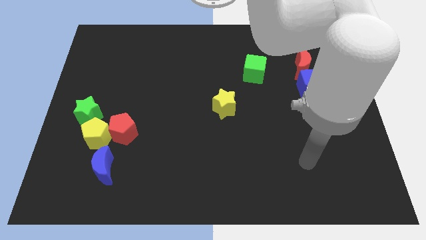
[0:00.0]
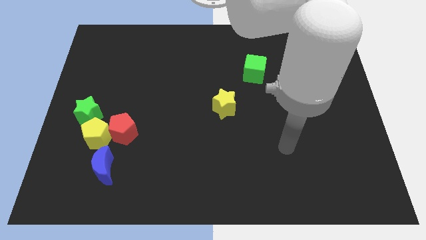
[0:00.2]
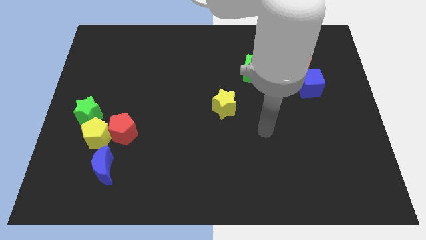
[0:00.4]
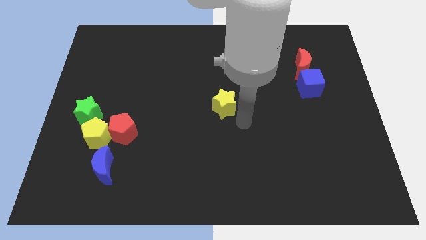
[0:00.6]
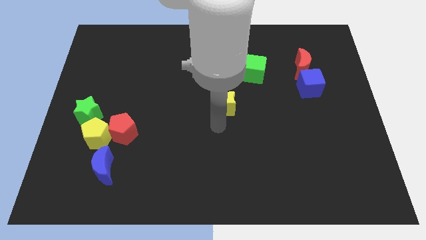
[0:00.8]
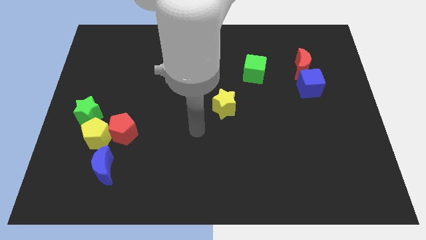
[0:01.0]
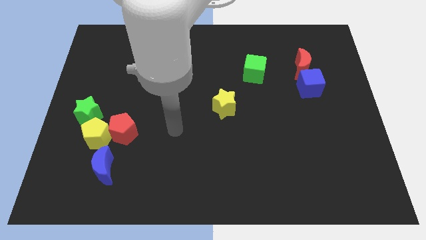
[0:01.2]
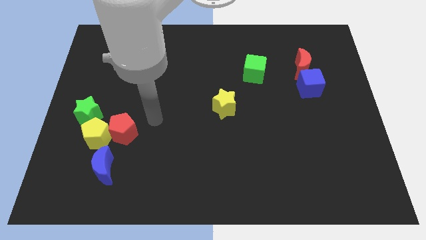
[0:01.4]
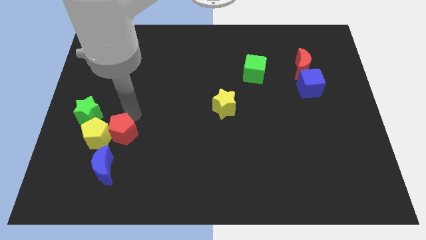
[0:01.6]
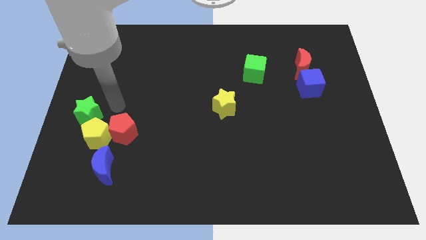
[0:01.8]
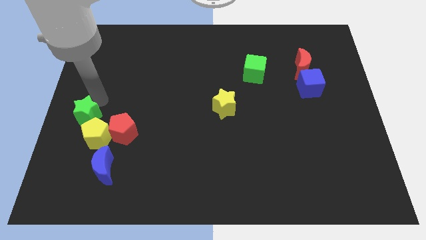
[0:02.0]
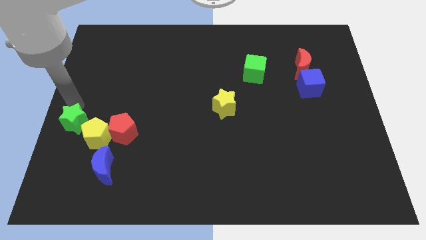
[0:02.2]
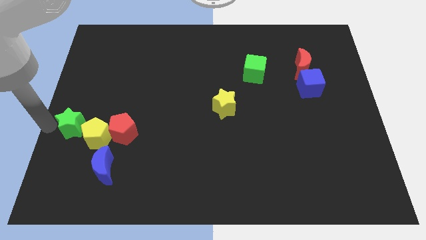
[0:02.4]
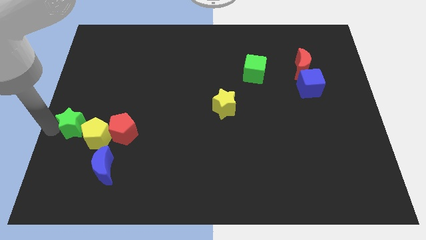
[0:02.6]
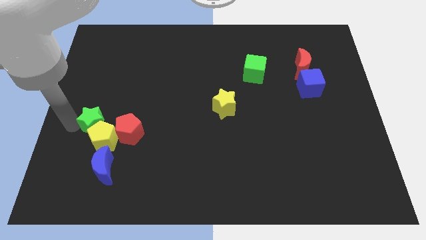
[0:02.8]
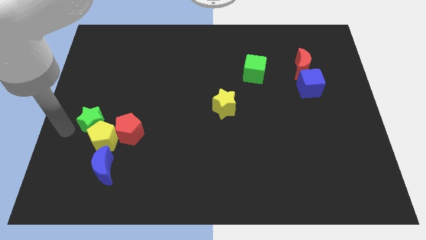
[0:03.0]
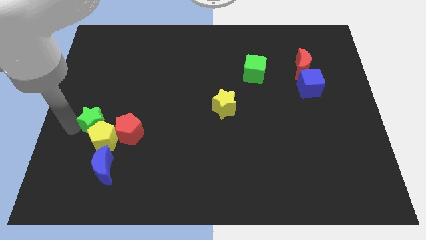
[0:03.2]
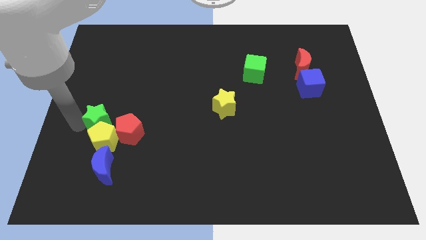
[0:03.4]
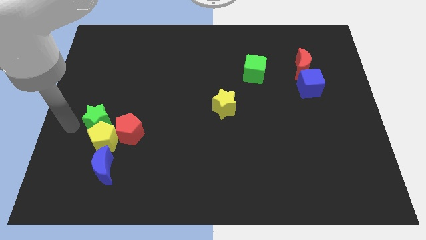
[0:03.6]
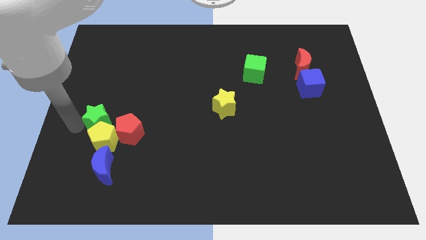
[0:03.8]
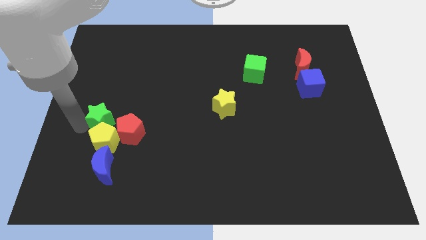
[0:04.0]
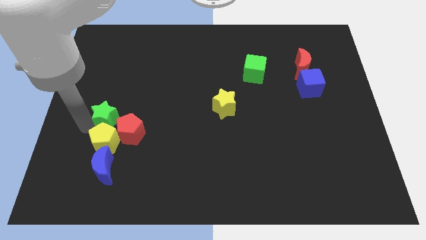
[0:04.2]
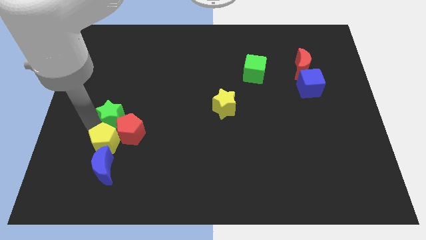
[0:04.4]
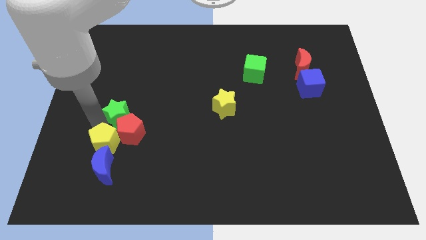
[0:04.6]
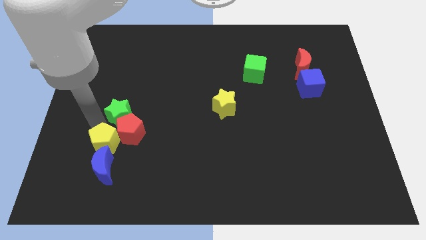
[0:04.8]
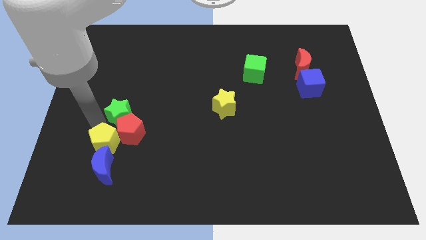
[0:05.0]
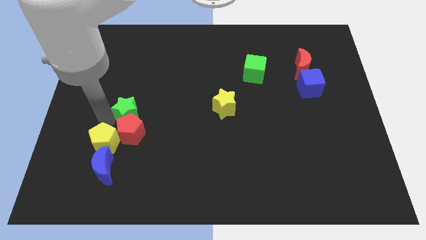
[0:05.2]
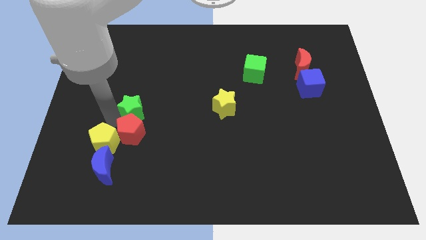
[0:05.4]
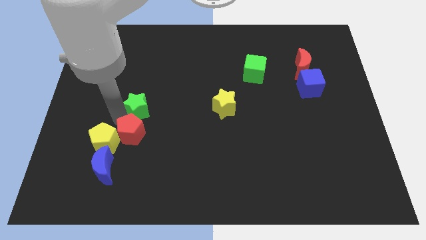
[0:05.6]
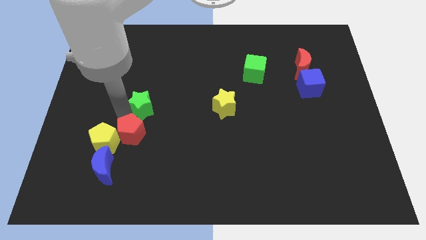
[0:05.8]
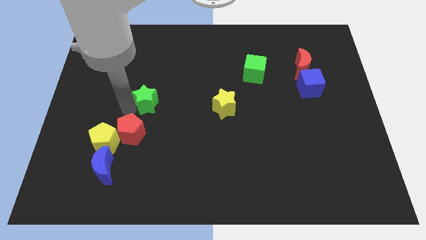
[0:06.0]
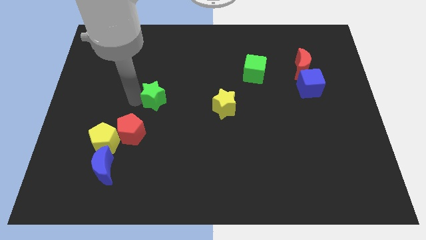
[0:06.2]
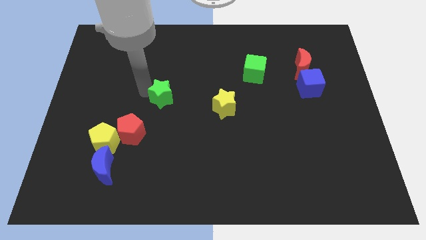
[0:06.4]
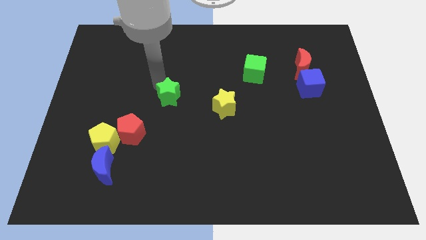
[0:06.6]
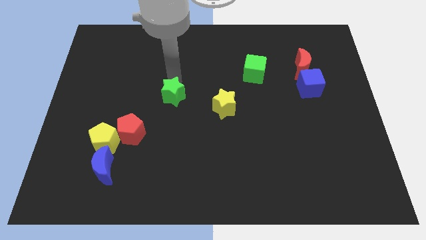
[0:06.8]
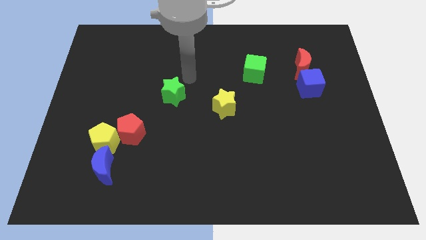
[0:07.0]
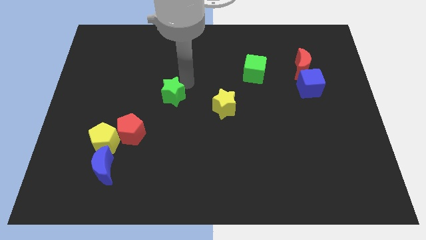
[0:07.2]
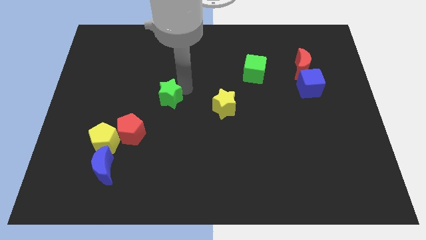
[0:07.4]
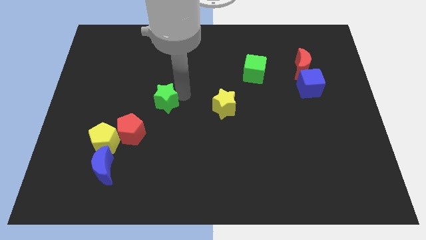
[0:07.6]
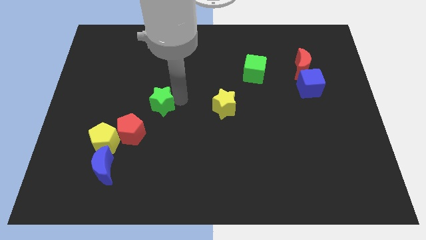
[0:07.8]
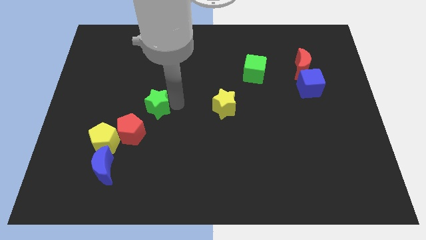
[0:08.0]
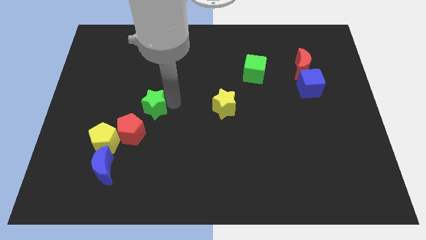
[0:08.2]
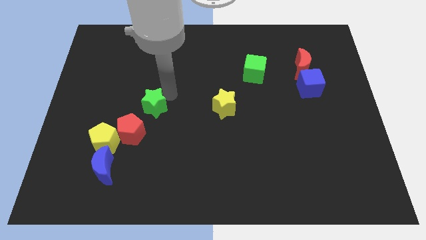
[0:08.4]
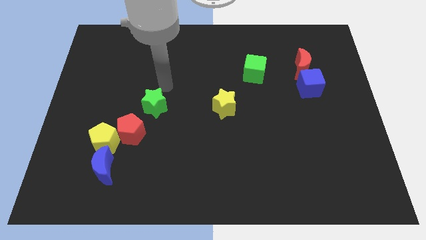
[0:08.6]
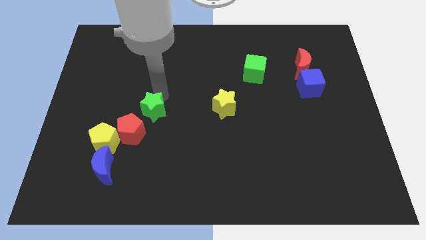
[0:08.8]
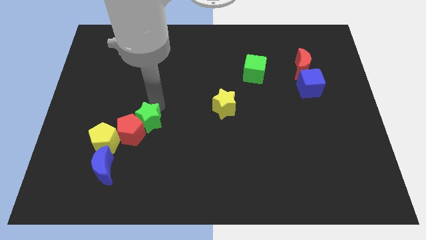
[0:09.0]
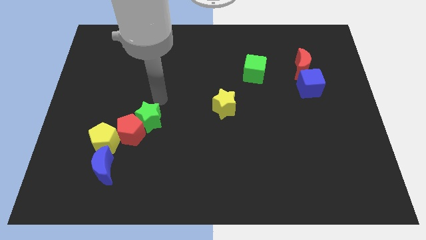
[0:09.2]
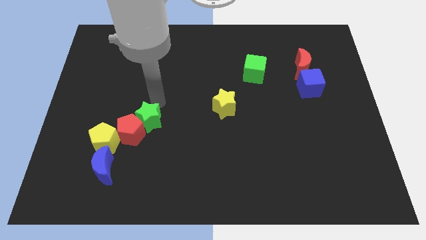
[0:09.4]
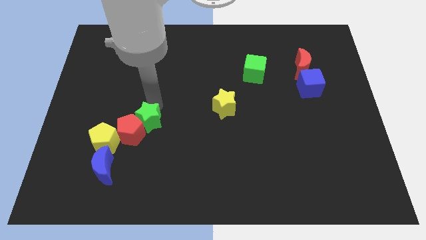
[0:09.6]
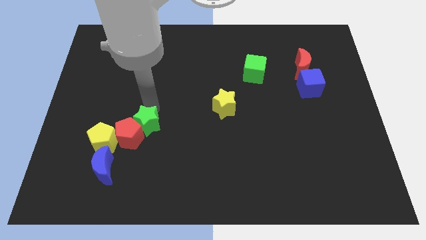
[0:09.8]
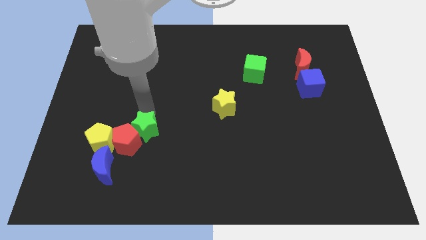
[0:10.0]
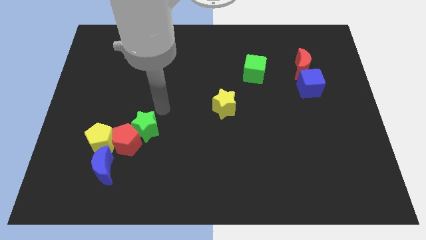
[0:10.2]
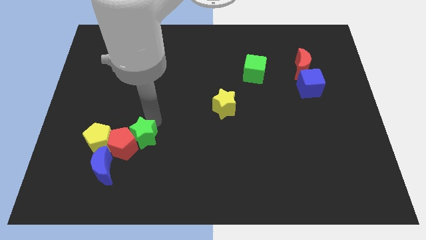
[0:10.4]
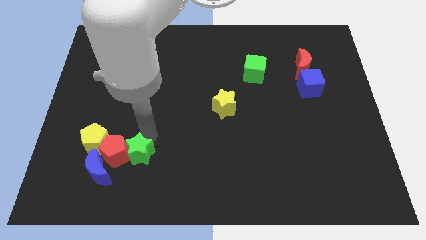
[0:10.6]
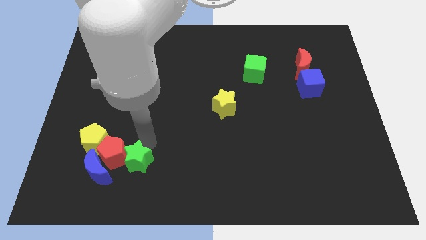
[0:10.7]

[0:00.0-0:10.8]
move the green star diagonally down and to the right of the yellow pentagon

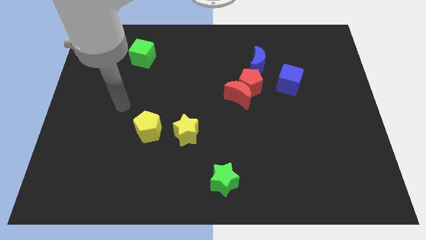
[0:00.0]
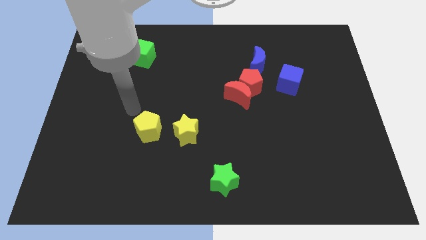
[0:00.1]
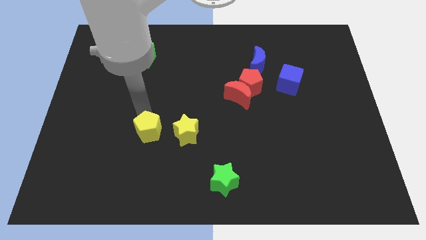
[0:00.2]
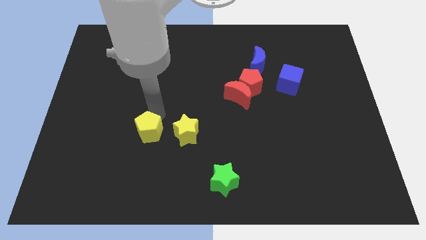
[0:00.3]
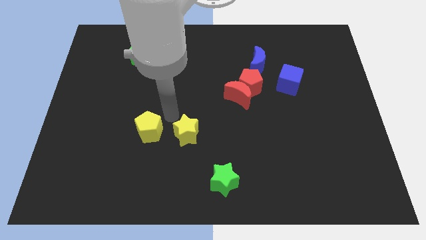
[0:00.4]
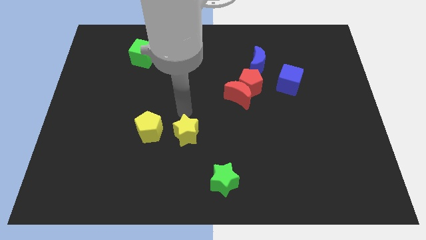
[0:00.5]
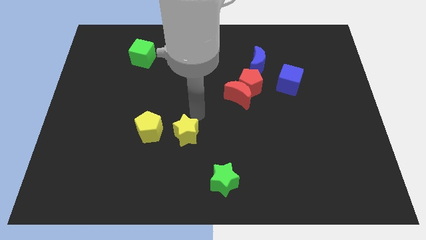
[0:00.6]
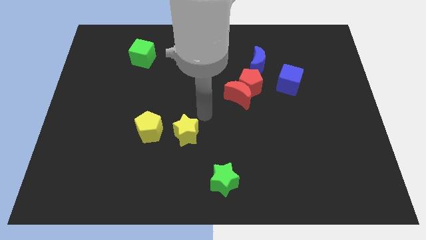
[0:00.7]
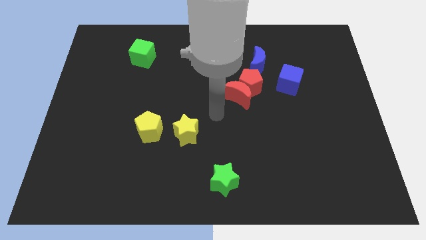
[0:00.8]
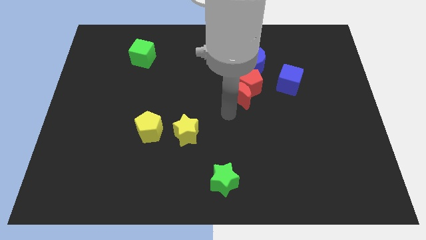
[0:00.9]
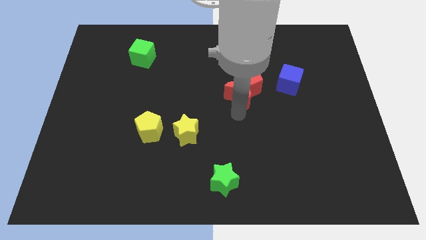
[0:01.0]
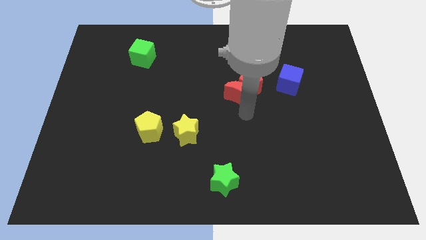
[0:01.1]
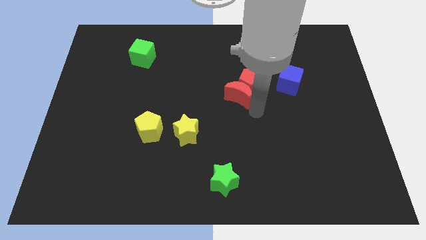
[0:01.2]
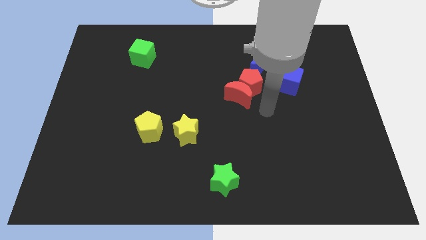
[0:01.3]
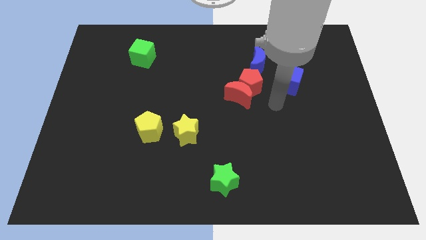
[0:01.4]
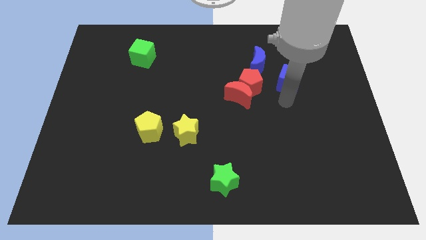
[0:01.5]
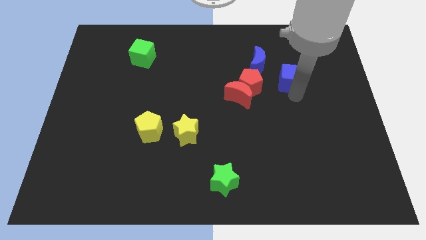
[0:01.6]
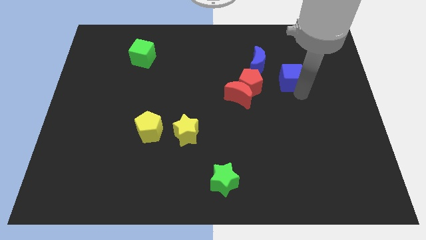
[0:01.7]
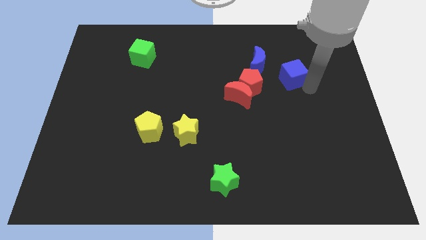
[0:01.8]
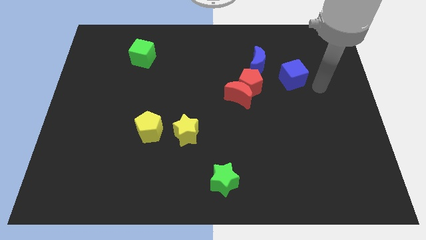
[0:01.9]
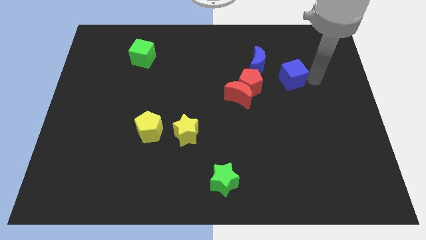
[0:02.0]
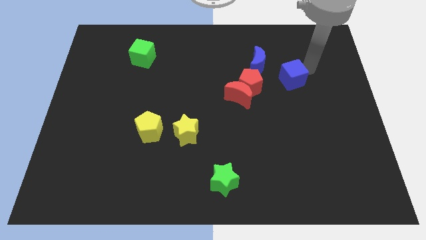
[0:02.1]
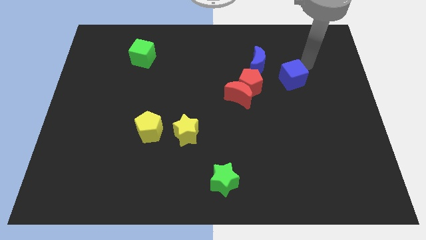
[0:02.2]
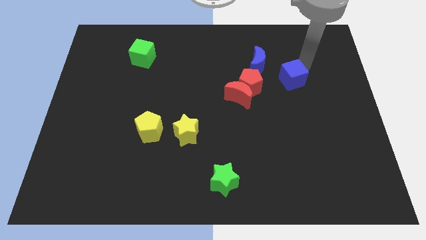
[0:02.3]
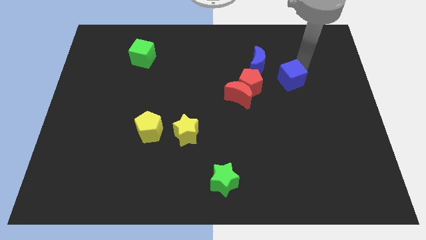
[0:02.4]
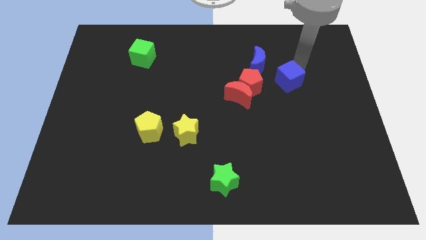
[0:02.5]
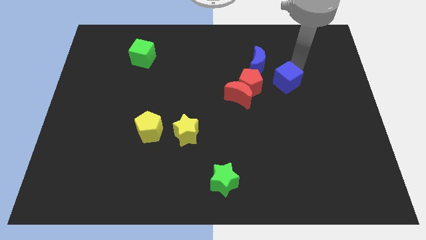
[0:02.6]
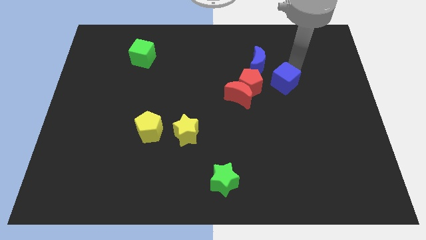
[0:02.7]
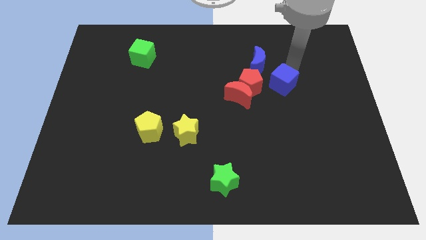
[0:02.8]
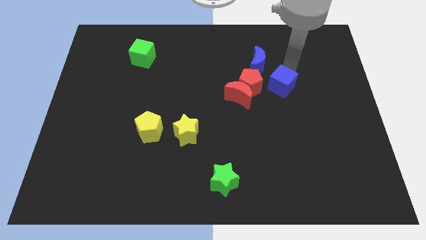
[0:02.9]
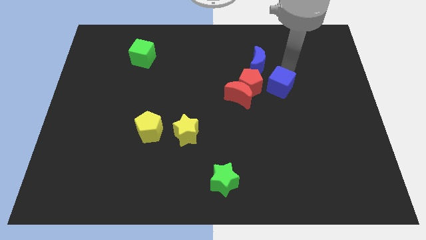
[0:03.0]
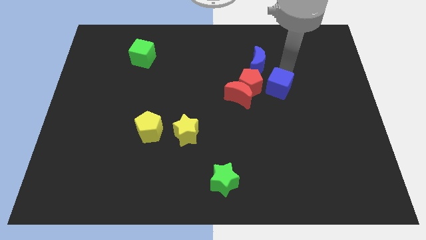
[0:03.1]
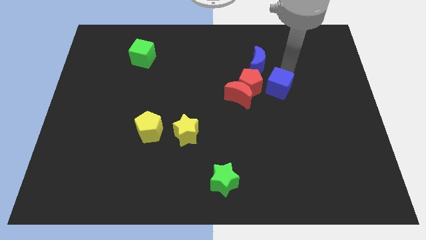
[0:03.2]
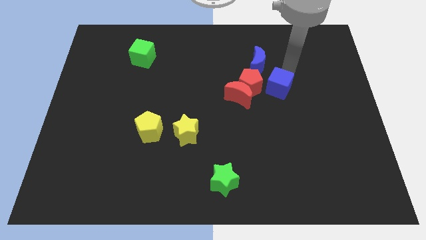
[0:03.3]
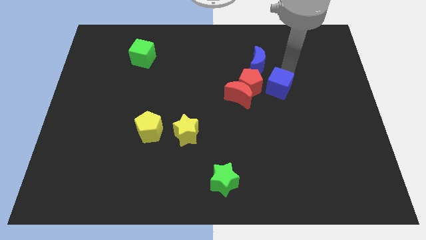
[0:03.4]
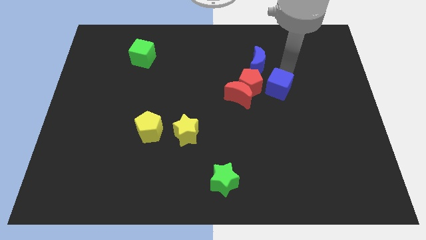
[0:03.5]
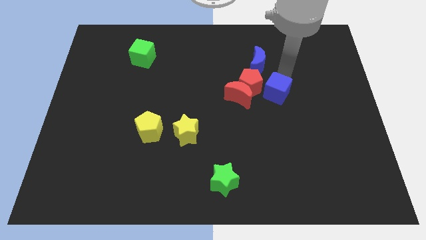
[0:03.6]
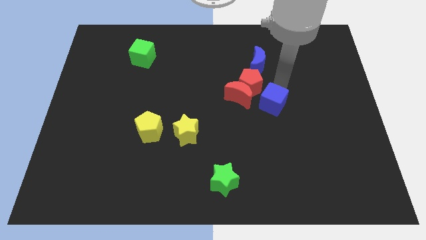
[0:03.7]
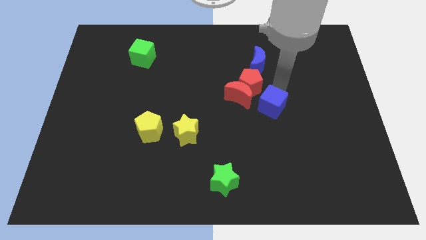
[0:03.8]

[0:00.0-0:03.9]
move the blue cube to the bottom side of the red pentagon
